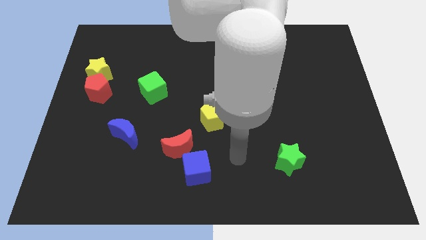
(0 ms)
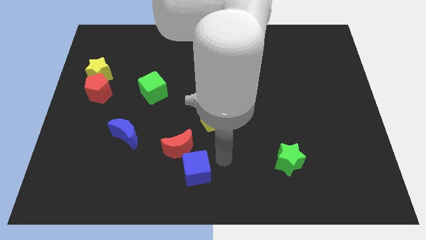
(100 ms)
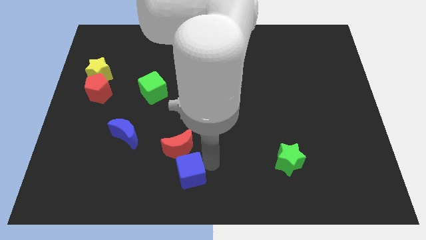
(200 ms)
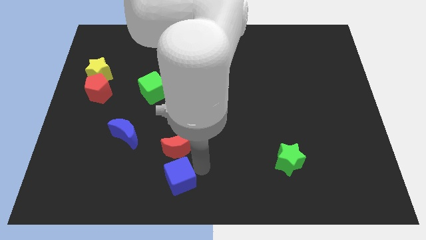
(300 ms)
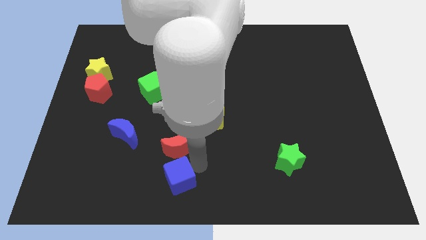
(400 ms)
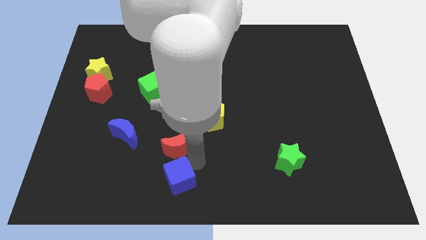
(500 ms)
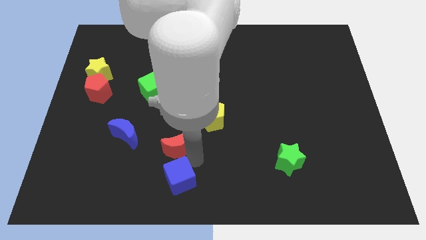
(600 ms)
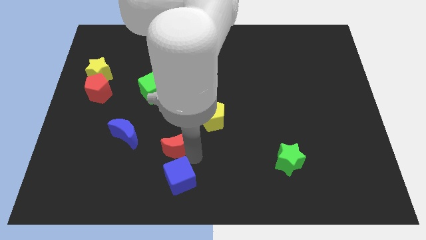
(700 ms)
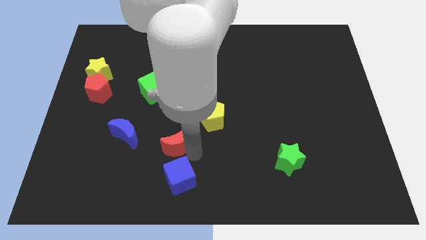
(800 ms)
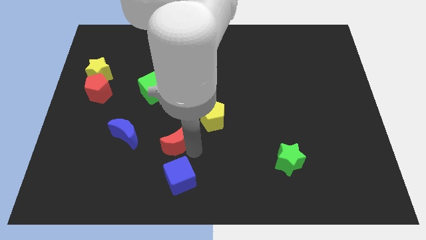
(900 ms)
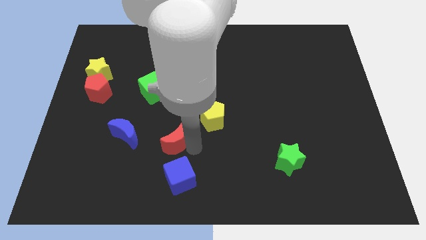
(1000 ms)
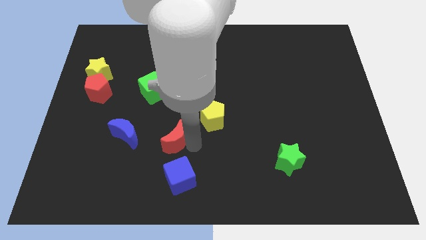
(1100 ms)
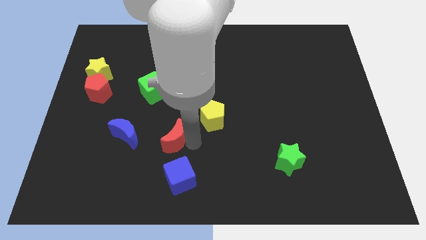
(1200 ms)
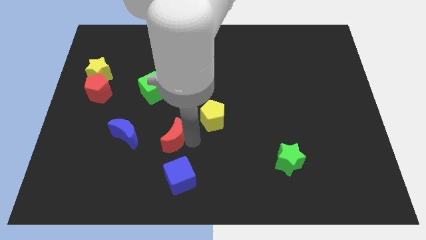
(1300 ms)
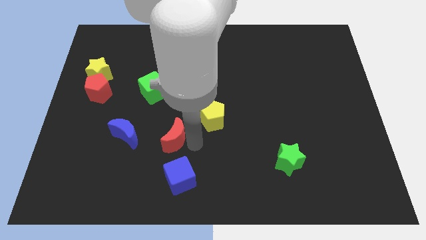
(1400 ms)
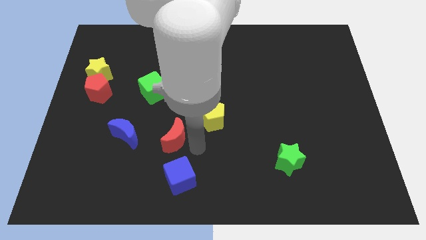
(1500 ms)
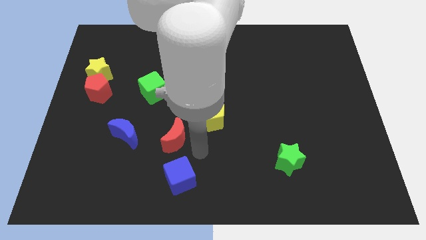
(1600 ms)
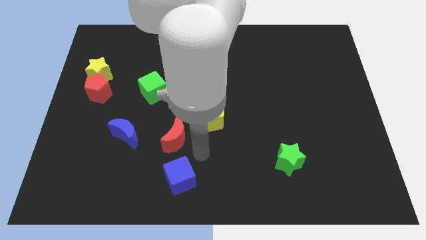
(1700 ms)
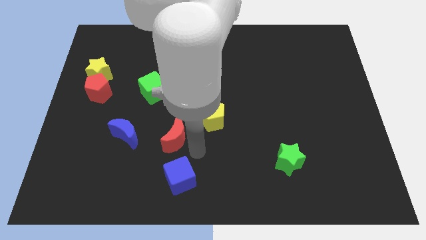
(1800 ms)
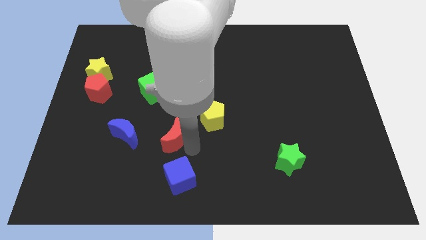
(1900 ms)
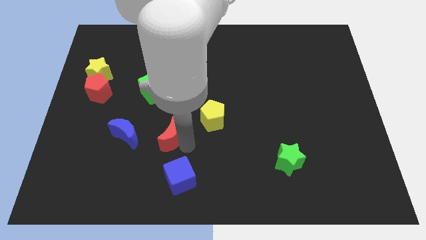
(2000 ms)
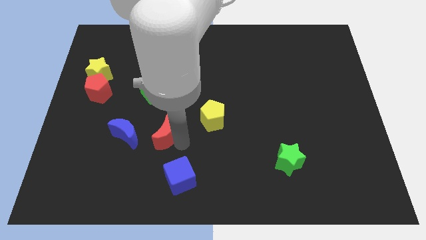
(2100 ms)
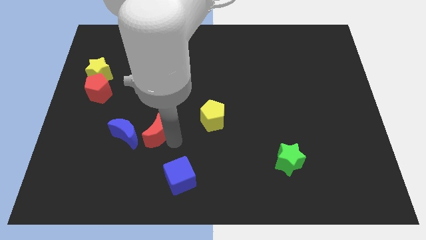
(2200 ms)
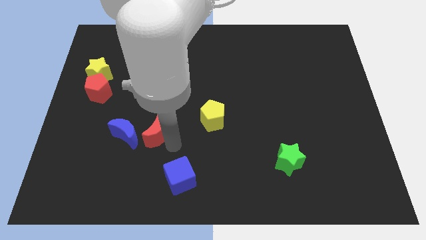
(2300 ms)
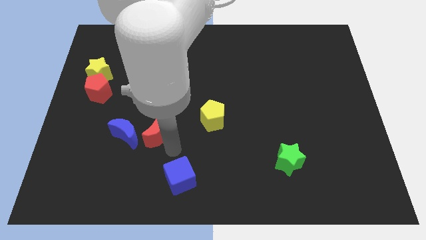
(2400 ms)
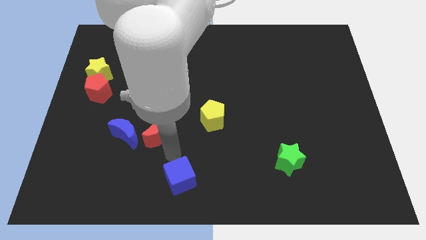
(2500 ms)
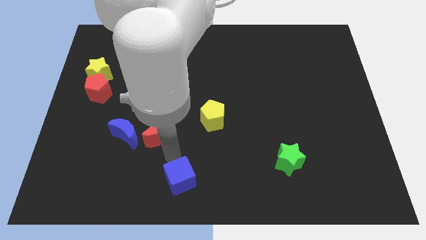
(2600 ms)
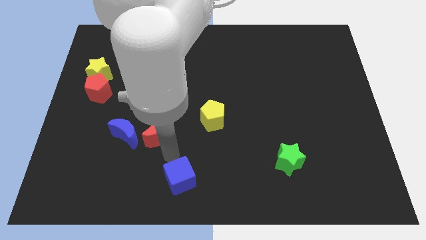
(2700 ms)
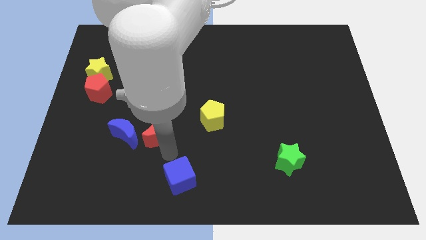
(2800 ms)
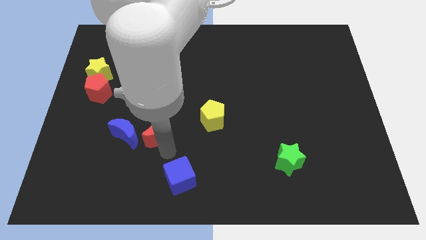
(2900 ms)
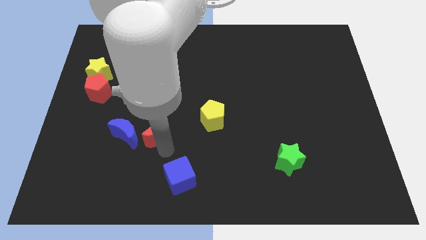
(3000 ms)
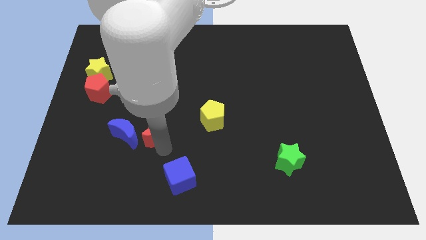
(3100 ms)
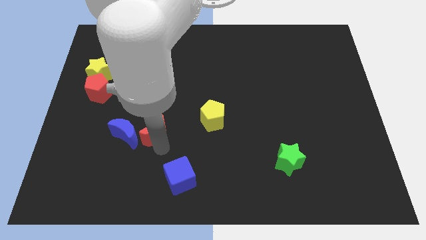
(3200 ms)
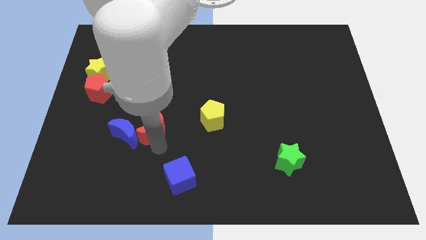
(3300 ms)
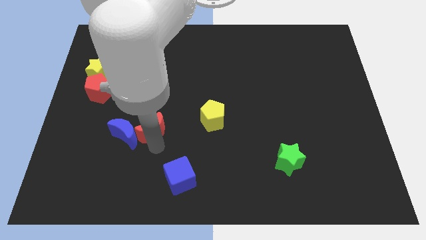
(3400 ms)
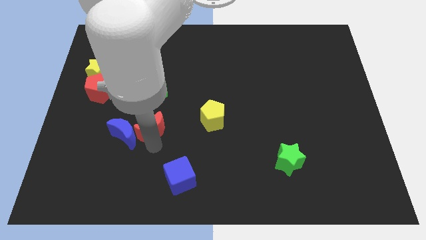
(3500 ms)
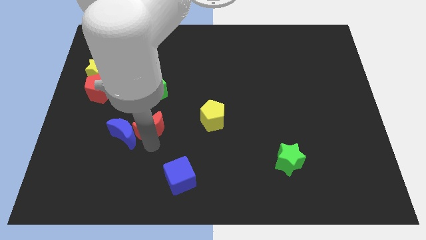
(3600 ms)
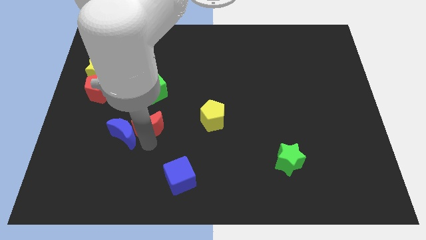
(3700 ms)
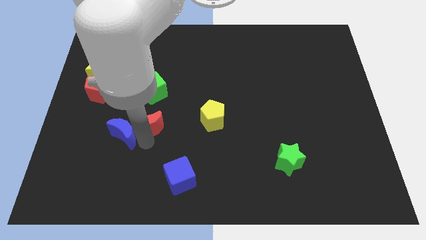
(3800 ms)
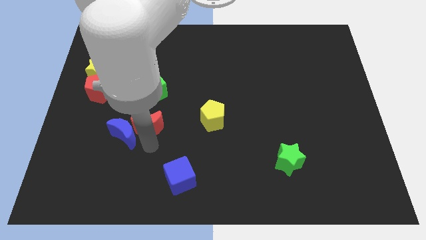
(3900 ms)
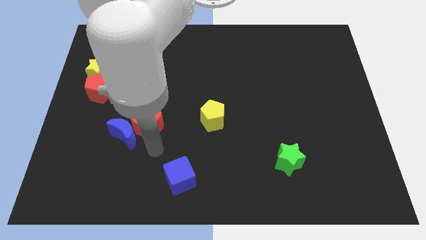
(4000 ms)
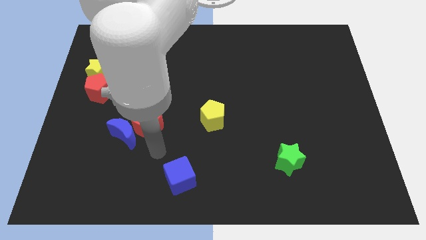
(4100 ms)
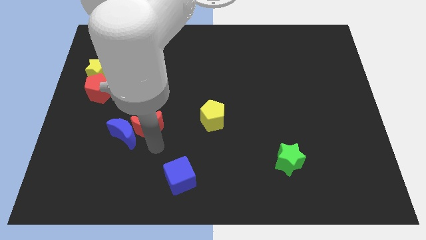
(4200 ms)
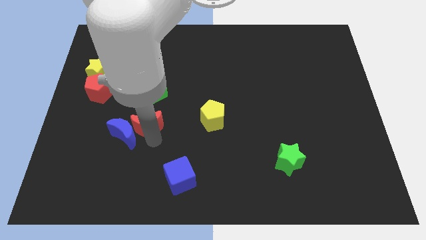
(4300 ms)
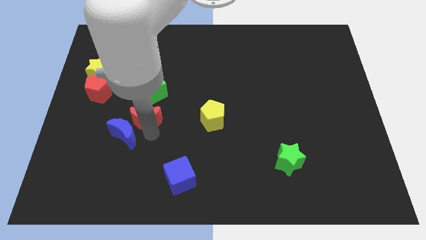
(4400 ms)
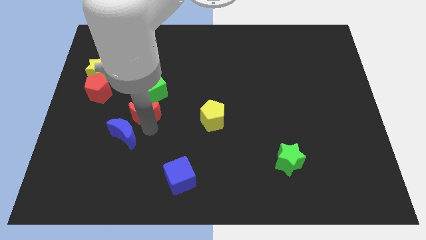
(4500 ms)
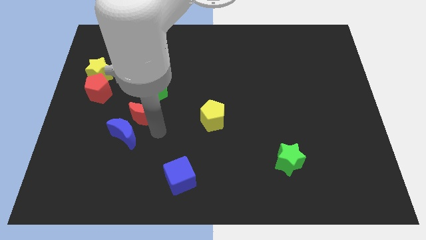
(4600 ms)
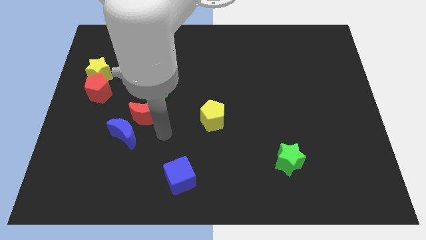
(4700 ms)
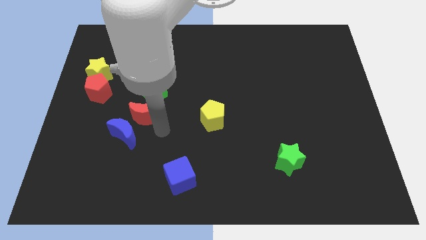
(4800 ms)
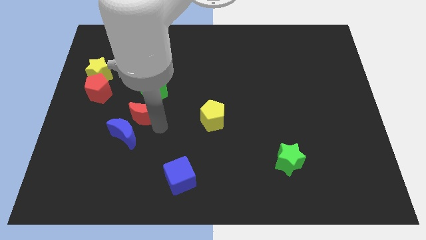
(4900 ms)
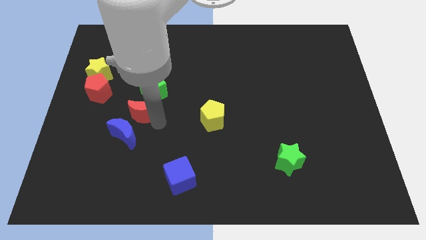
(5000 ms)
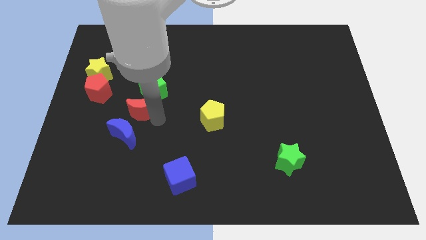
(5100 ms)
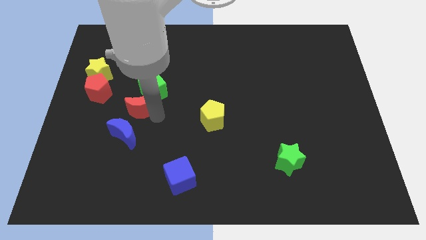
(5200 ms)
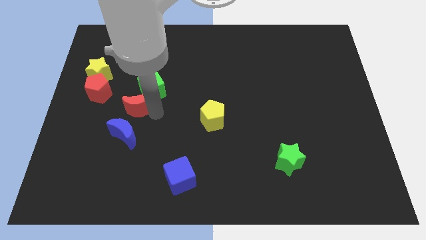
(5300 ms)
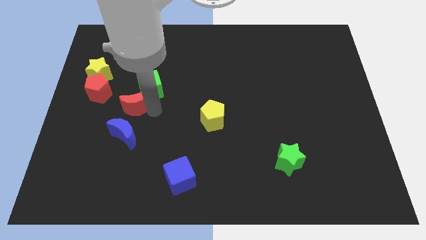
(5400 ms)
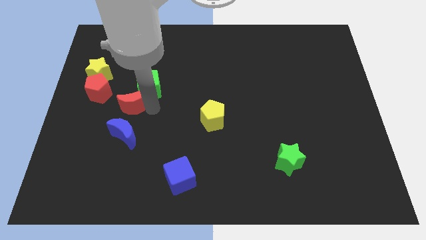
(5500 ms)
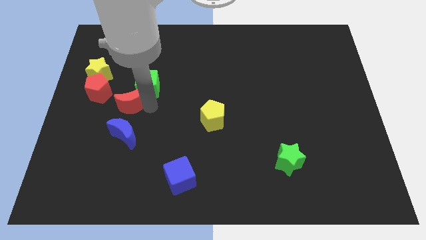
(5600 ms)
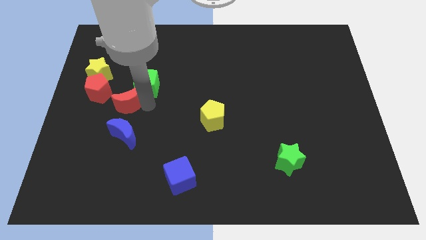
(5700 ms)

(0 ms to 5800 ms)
put the red moon diagonally down and to the right of the yellow star

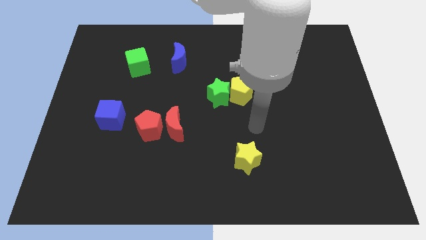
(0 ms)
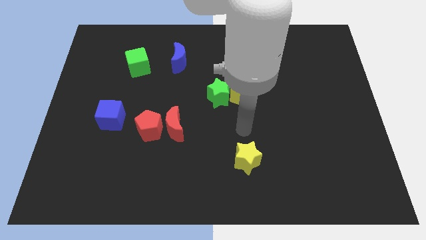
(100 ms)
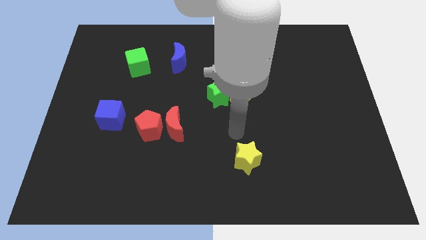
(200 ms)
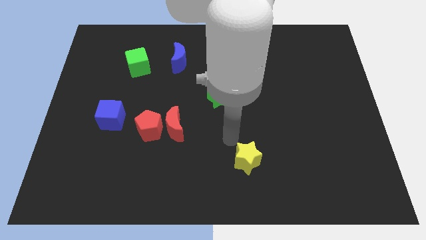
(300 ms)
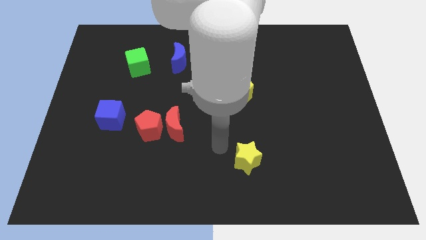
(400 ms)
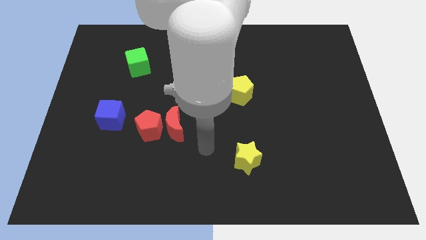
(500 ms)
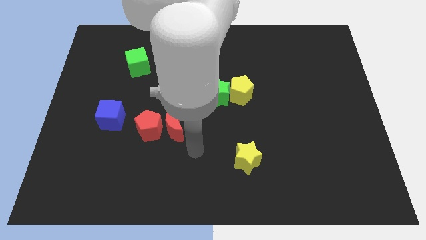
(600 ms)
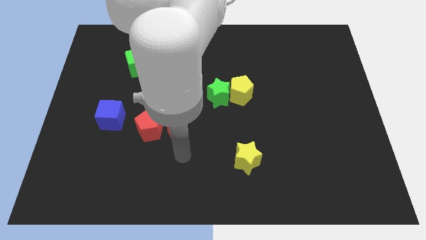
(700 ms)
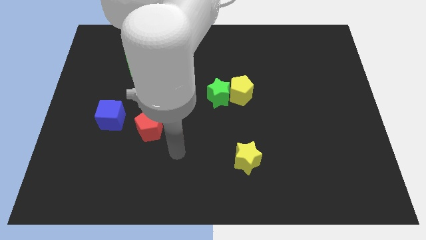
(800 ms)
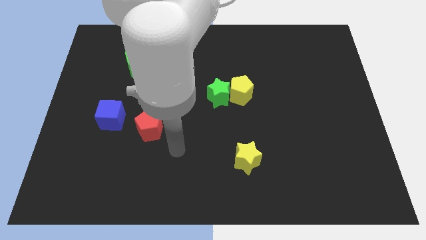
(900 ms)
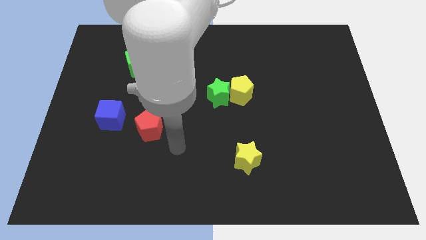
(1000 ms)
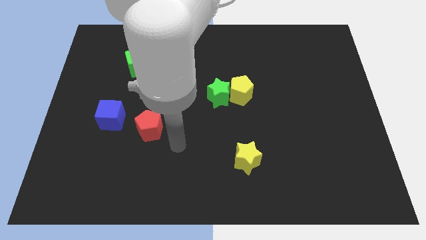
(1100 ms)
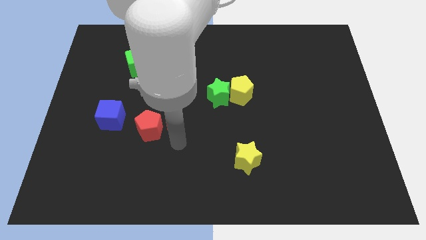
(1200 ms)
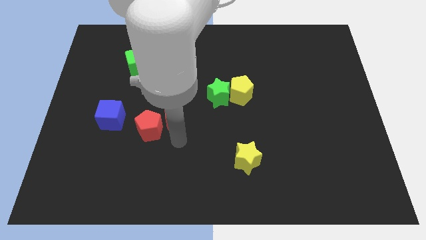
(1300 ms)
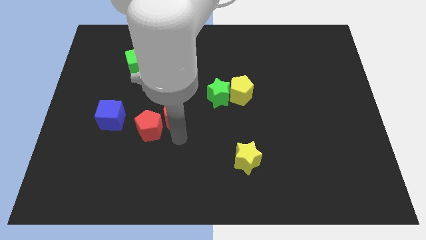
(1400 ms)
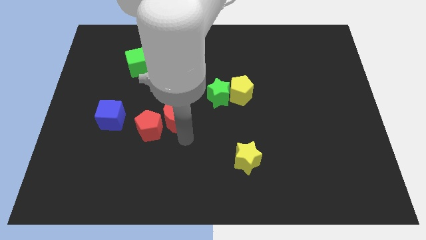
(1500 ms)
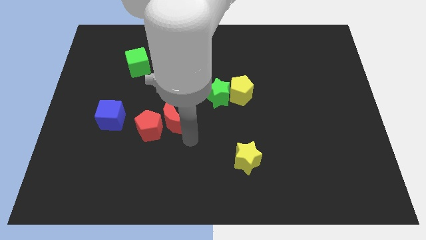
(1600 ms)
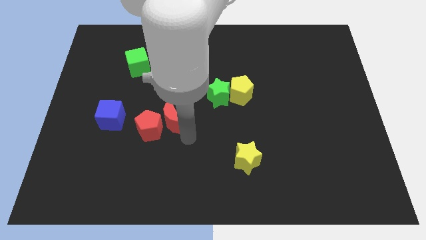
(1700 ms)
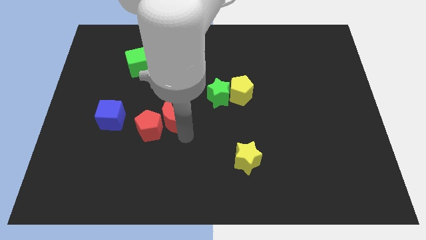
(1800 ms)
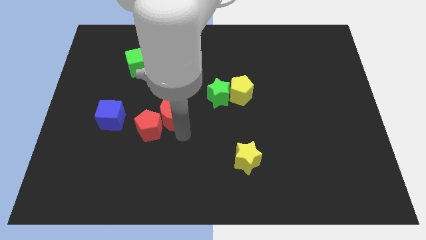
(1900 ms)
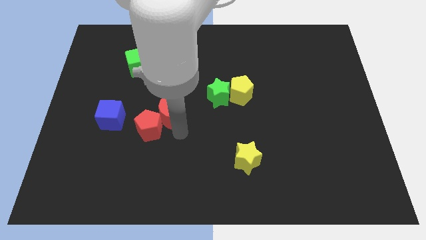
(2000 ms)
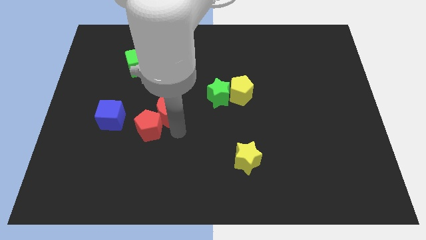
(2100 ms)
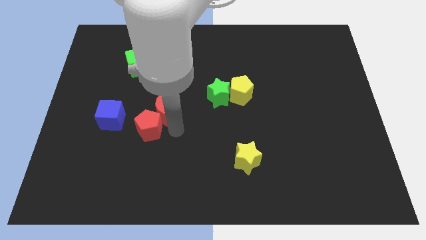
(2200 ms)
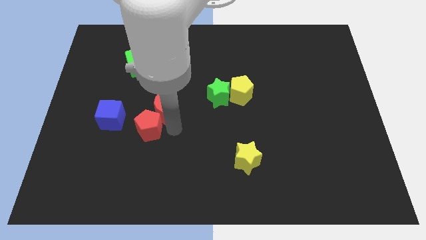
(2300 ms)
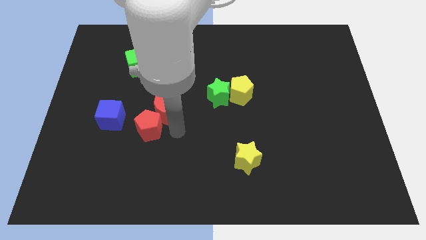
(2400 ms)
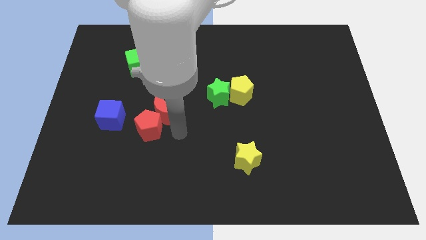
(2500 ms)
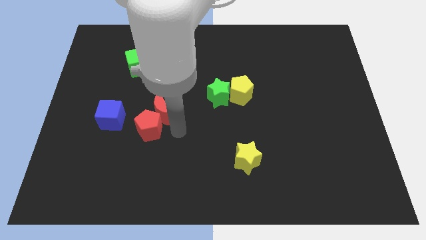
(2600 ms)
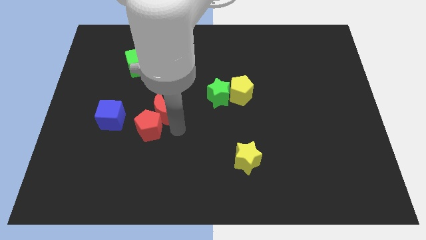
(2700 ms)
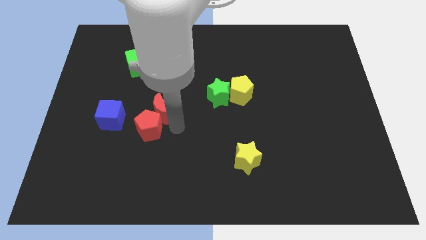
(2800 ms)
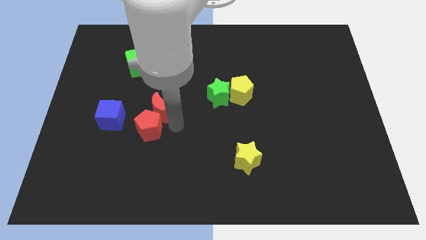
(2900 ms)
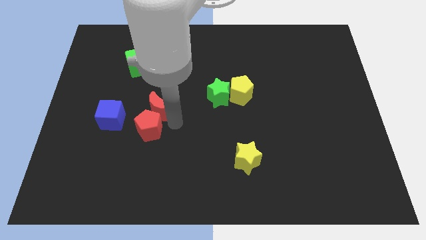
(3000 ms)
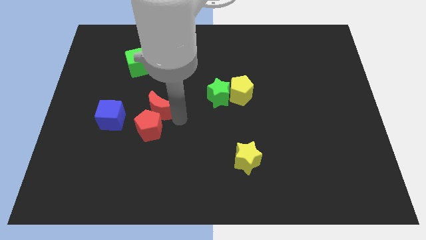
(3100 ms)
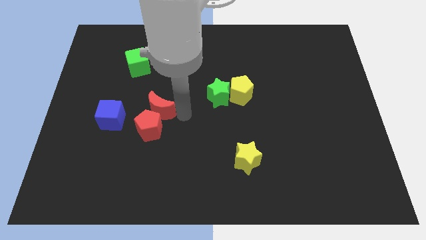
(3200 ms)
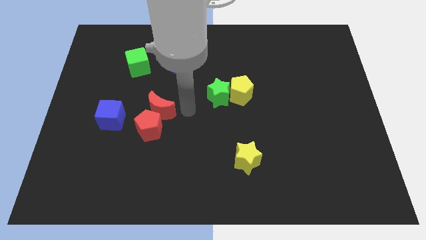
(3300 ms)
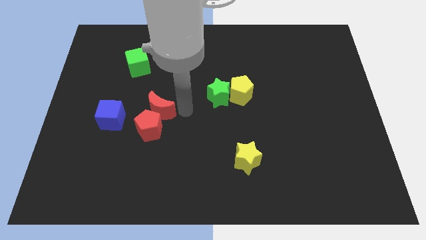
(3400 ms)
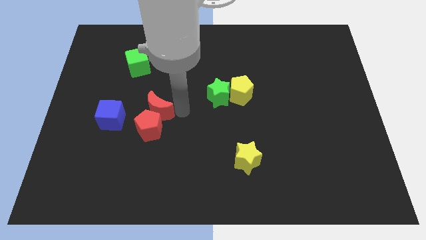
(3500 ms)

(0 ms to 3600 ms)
push the red moon diagonally up and to the left of the red pentagon
